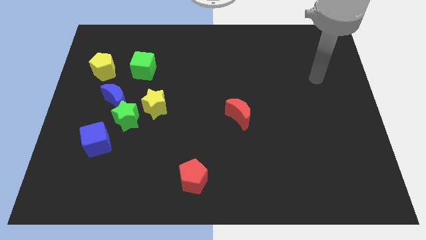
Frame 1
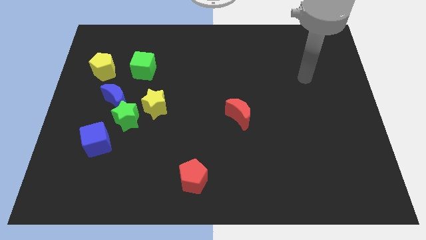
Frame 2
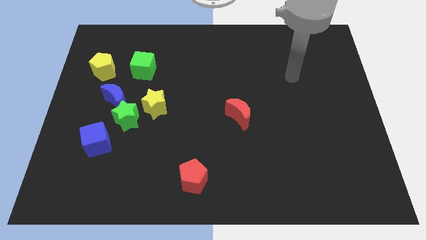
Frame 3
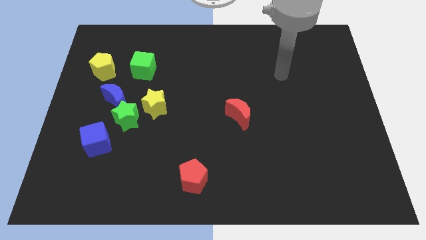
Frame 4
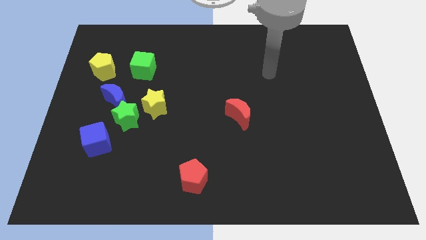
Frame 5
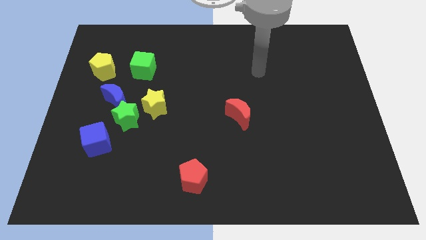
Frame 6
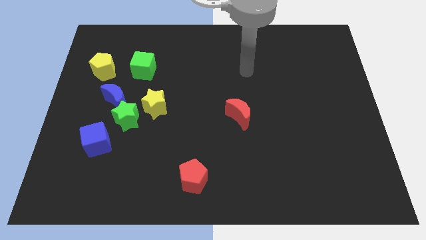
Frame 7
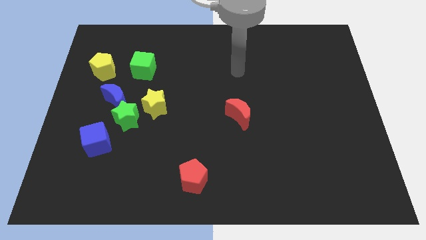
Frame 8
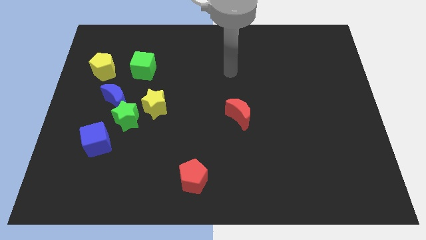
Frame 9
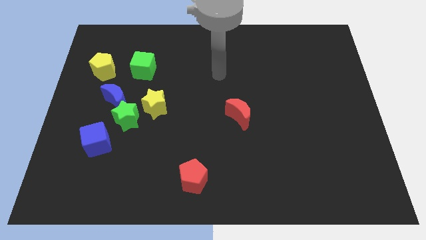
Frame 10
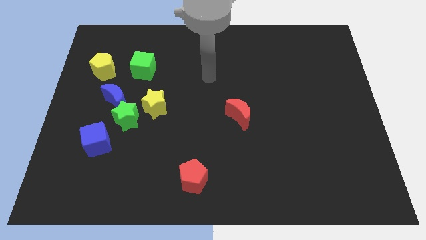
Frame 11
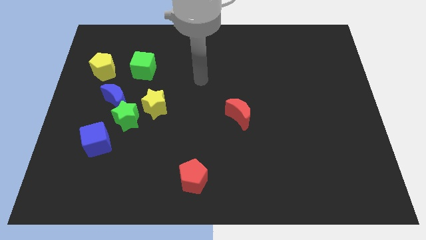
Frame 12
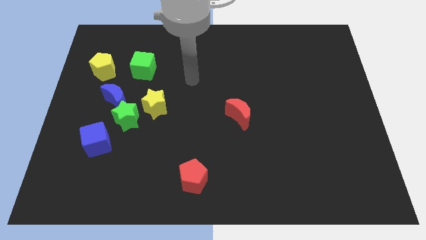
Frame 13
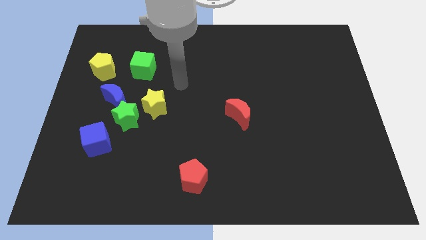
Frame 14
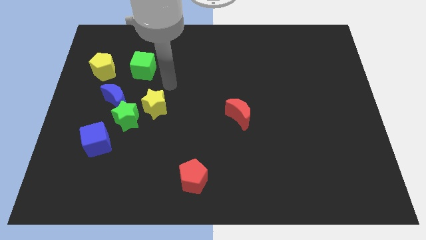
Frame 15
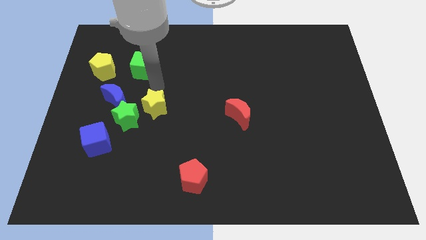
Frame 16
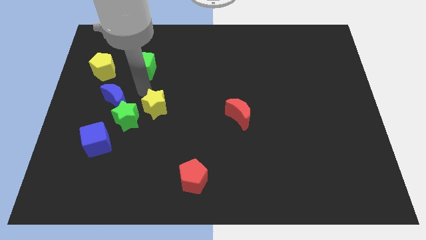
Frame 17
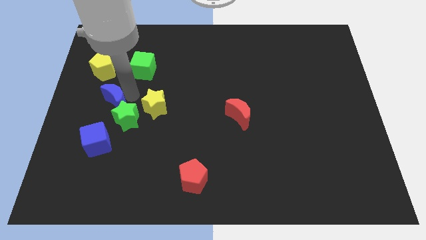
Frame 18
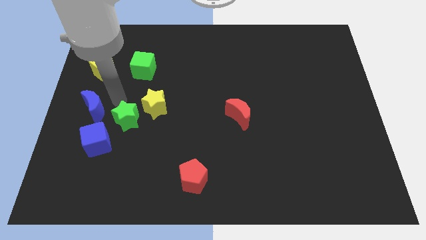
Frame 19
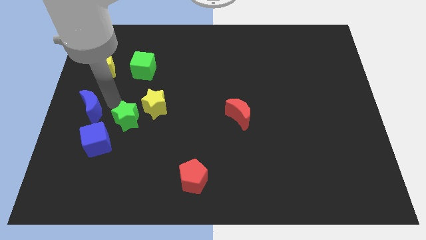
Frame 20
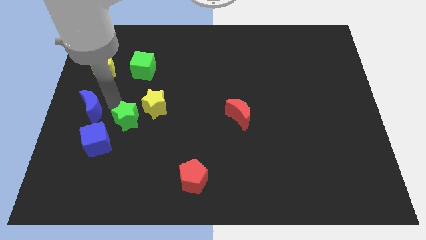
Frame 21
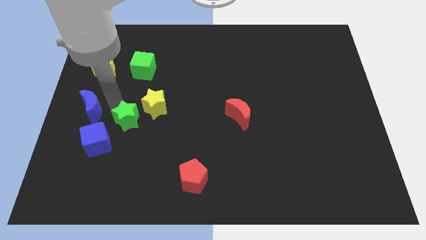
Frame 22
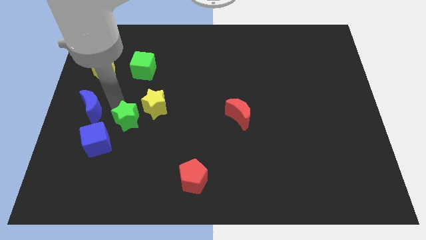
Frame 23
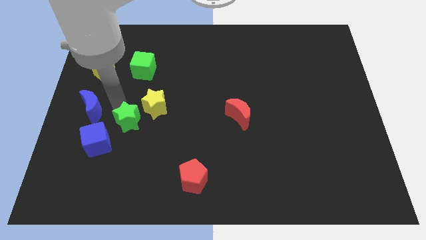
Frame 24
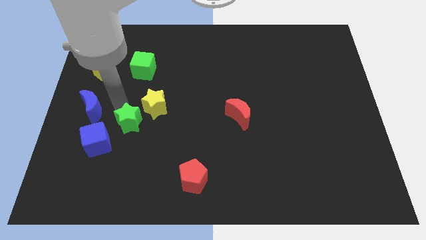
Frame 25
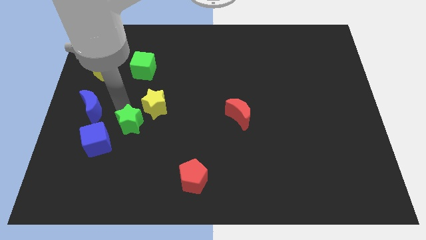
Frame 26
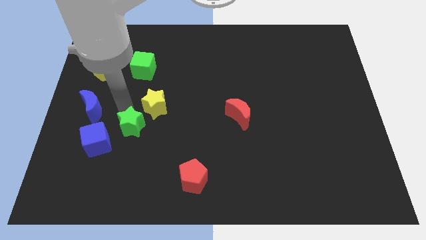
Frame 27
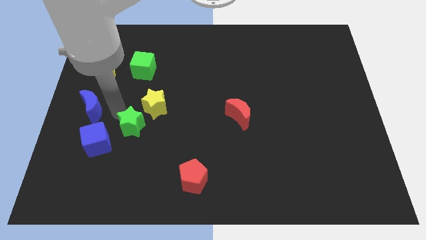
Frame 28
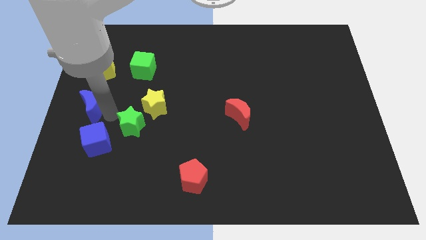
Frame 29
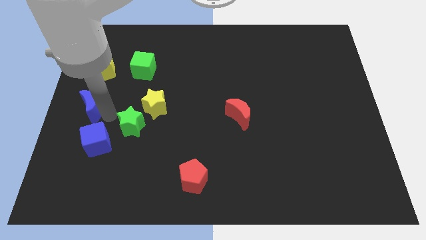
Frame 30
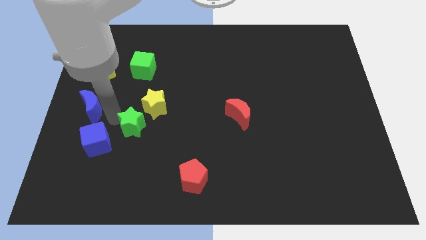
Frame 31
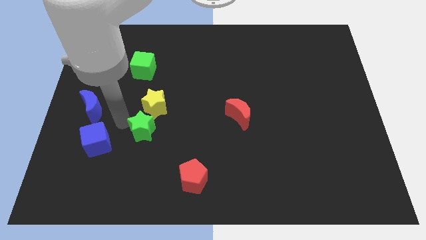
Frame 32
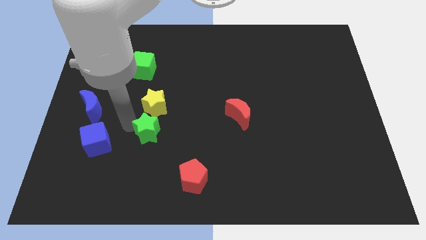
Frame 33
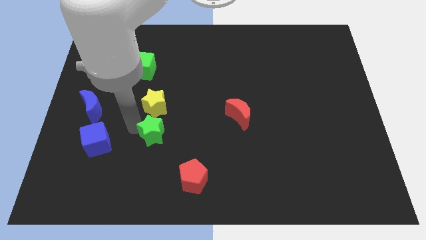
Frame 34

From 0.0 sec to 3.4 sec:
move the green star away from the blue moon, yellow star, and blue cube

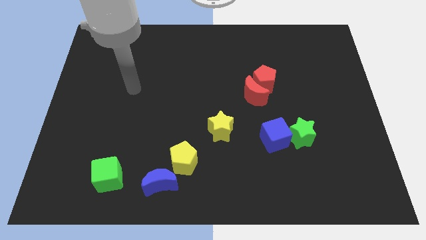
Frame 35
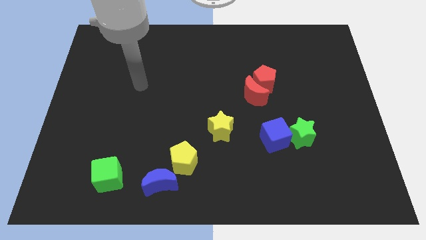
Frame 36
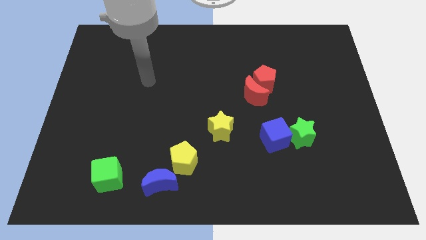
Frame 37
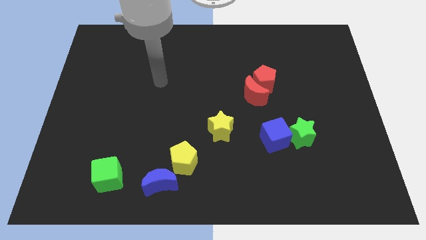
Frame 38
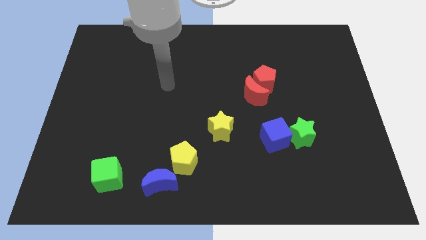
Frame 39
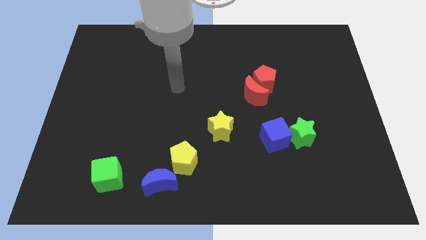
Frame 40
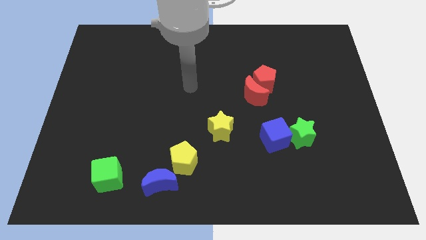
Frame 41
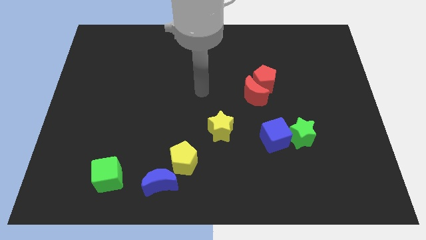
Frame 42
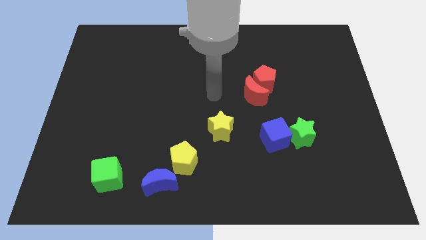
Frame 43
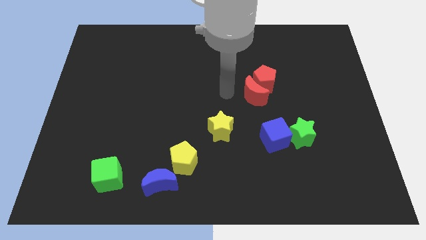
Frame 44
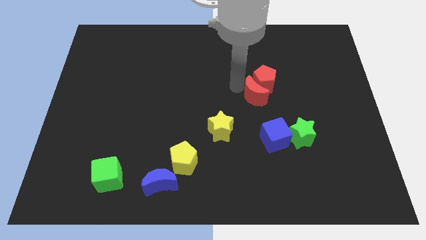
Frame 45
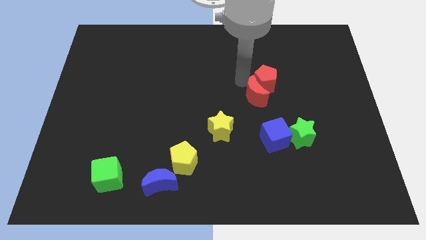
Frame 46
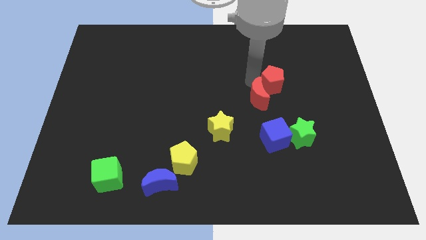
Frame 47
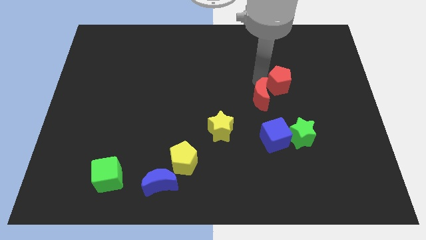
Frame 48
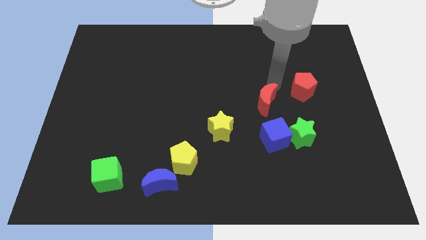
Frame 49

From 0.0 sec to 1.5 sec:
pull the red moon apart from the red pentagon

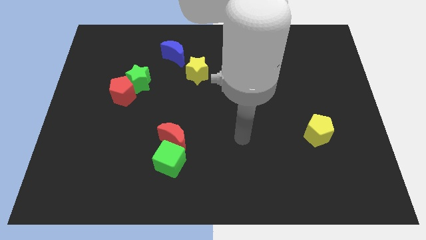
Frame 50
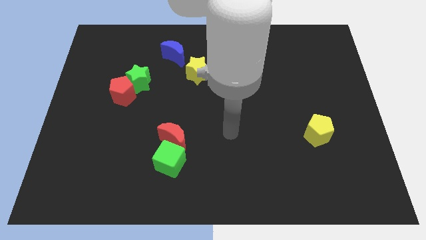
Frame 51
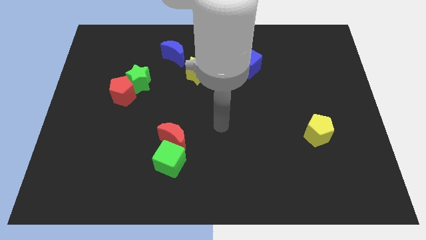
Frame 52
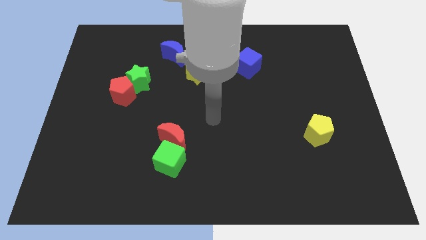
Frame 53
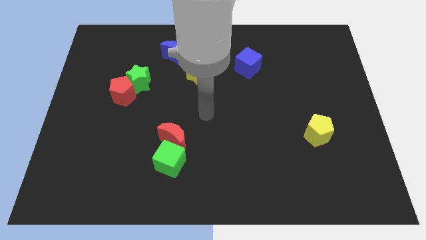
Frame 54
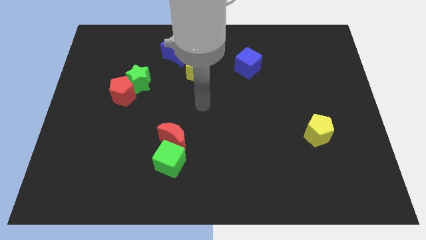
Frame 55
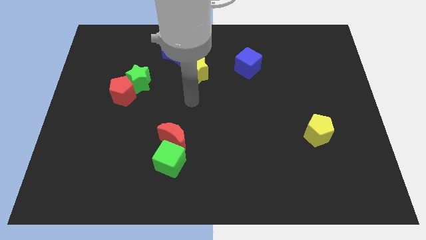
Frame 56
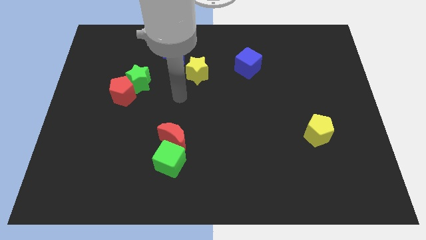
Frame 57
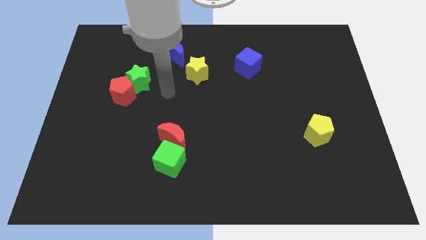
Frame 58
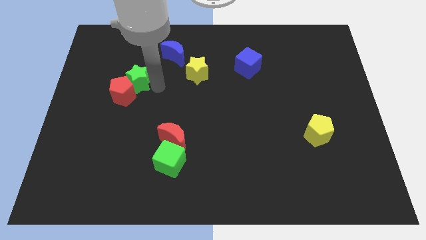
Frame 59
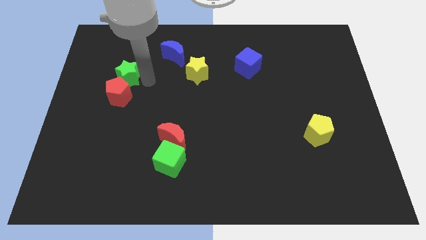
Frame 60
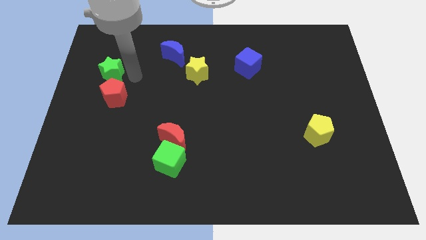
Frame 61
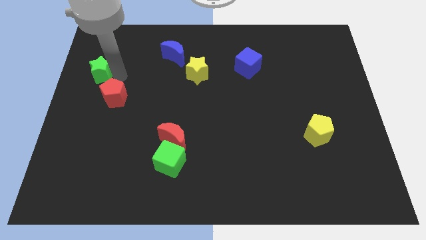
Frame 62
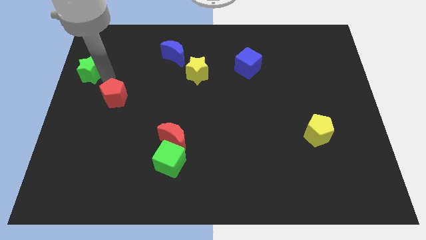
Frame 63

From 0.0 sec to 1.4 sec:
move the red pentagon away from the green star

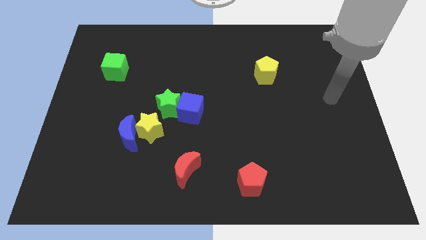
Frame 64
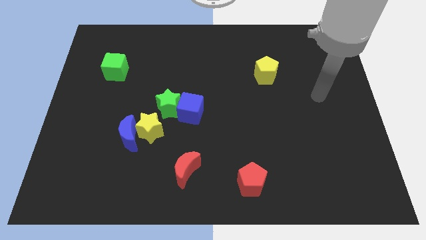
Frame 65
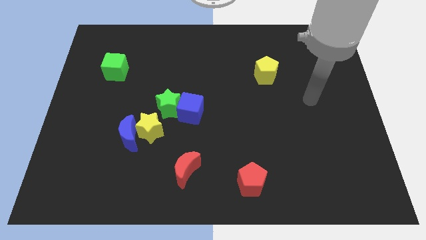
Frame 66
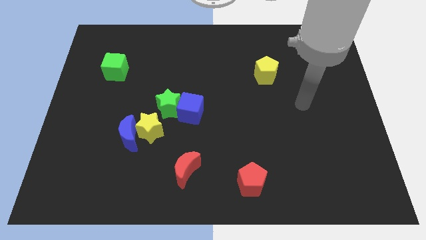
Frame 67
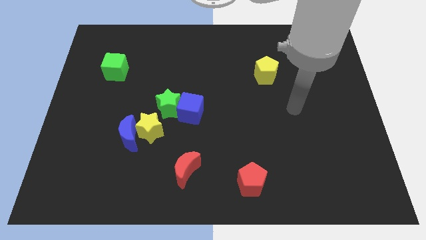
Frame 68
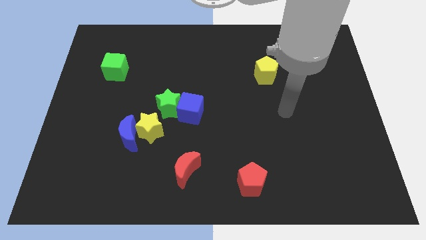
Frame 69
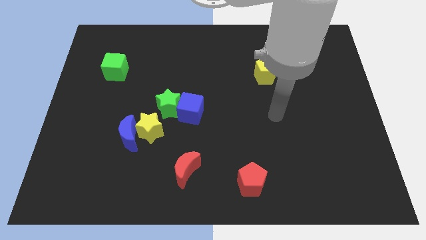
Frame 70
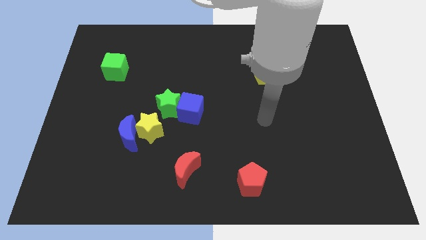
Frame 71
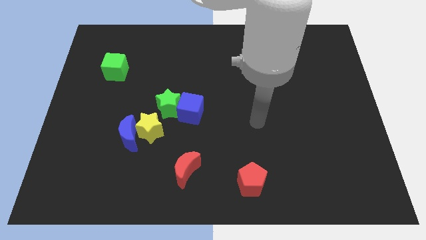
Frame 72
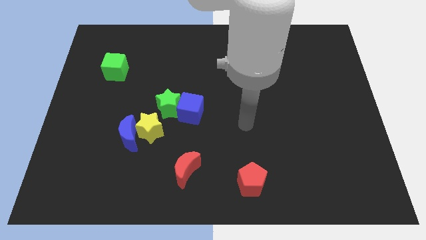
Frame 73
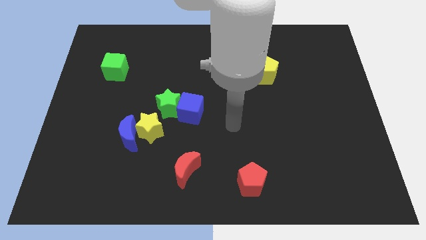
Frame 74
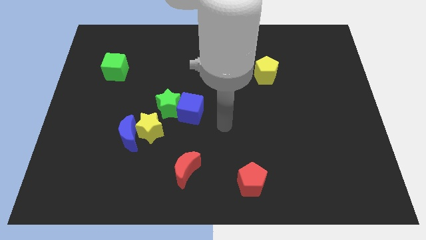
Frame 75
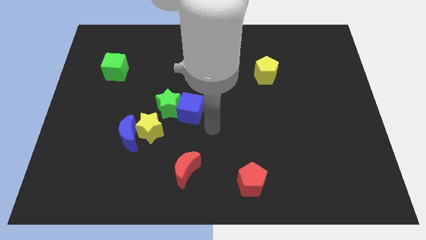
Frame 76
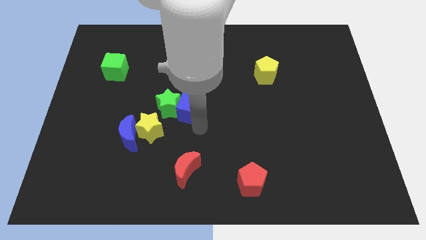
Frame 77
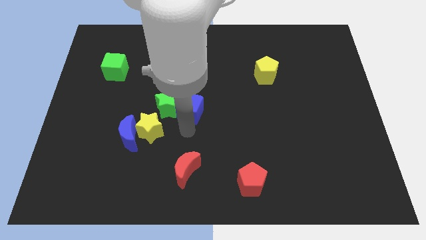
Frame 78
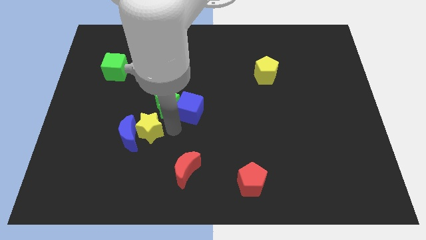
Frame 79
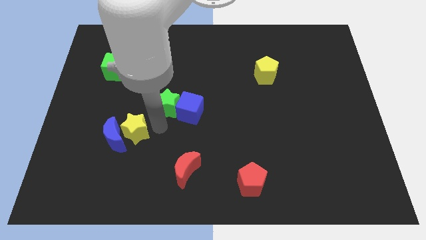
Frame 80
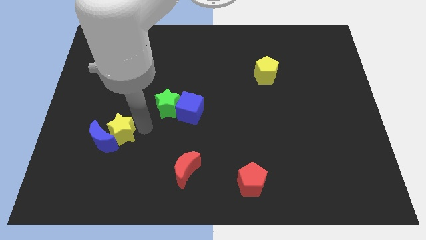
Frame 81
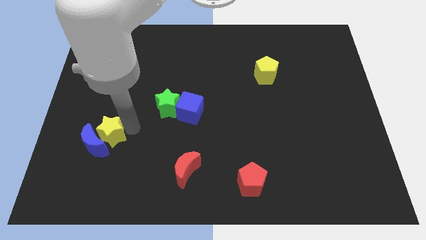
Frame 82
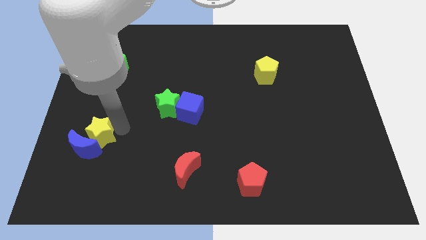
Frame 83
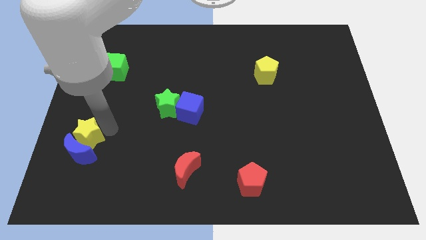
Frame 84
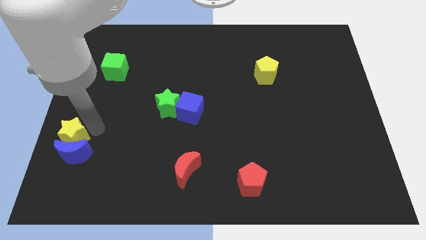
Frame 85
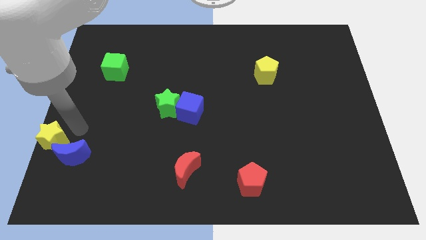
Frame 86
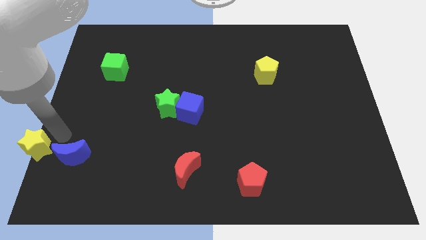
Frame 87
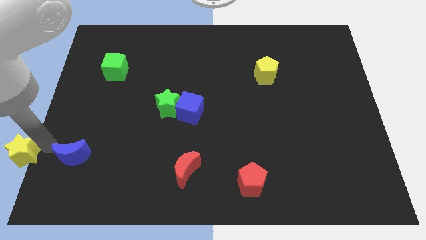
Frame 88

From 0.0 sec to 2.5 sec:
move the blue moon away from the yellow star

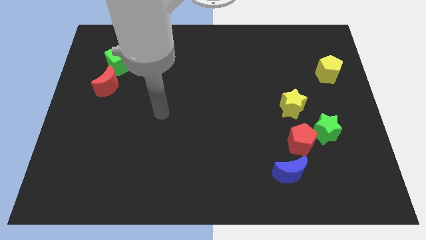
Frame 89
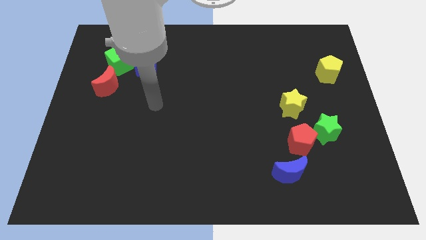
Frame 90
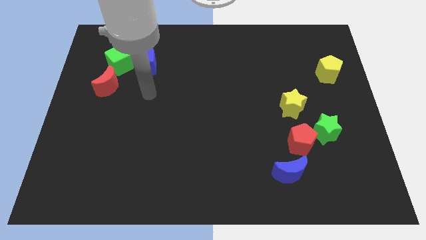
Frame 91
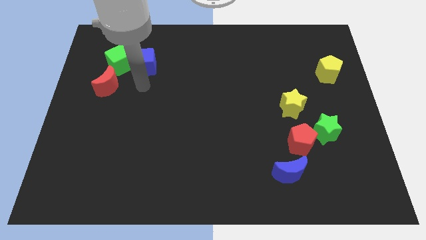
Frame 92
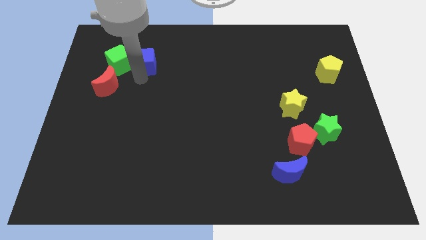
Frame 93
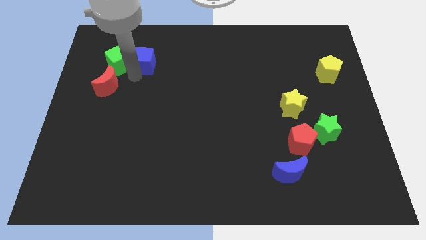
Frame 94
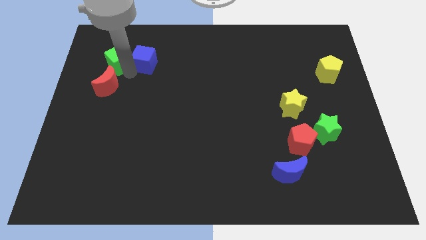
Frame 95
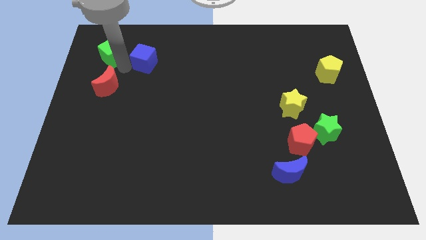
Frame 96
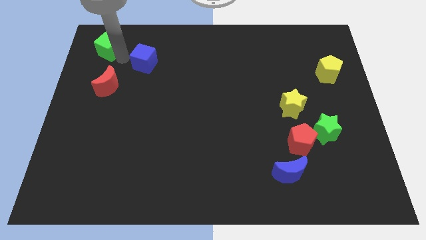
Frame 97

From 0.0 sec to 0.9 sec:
separate the blue cube from the green cube
